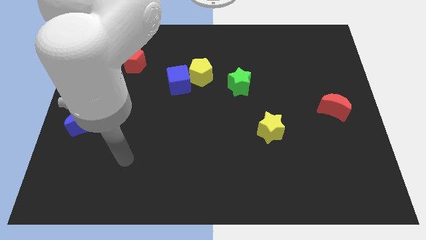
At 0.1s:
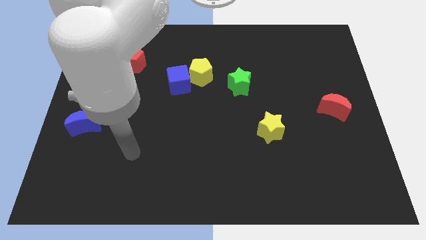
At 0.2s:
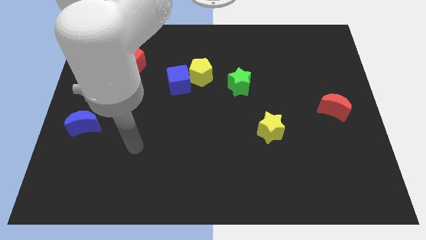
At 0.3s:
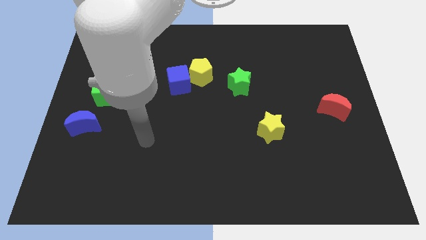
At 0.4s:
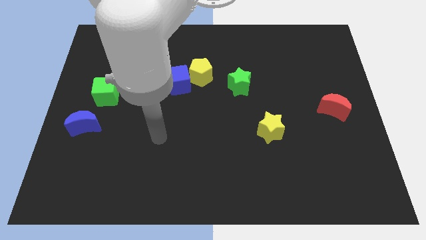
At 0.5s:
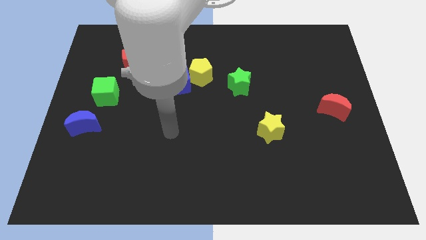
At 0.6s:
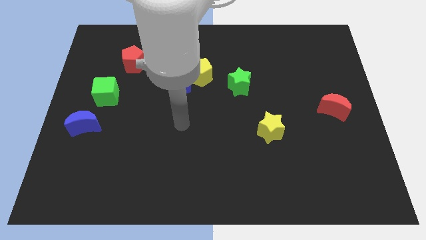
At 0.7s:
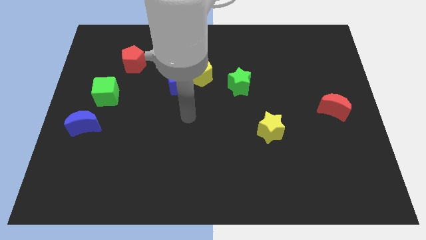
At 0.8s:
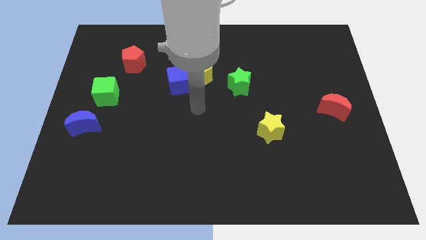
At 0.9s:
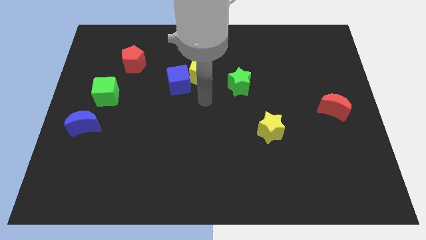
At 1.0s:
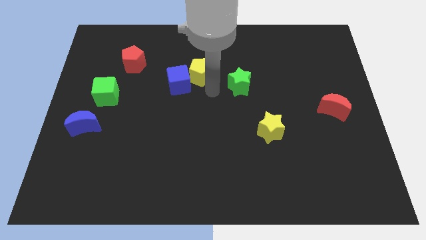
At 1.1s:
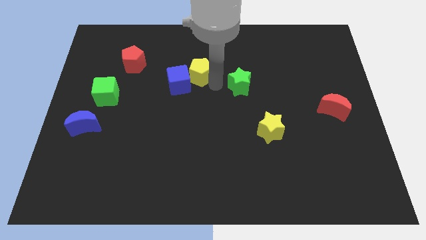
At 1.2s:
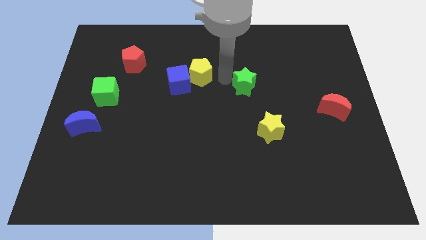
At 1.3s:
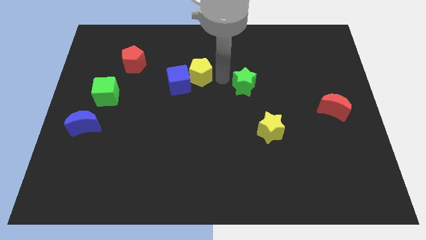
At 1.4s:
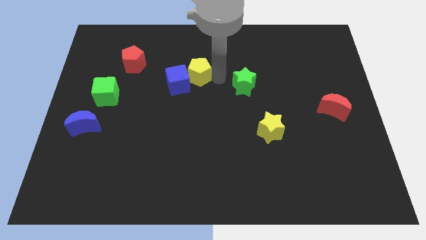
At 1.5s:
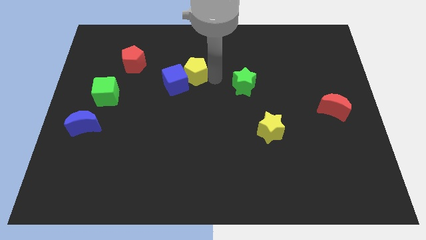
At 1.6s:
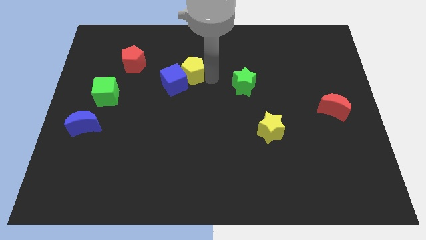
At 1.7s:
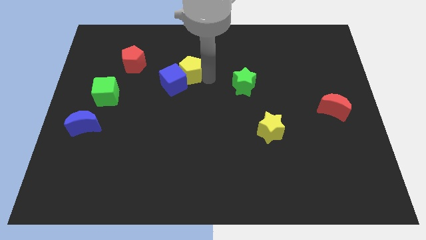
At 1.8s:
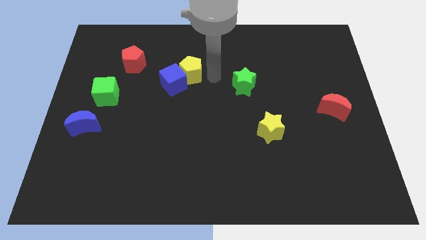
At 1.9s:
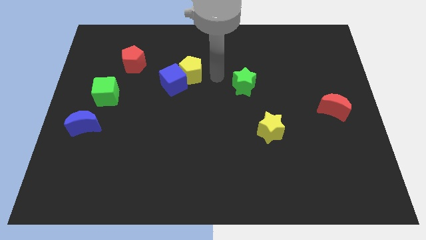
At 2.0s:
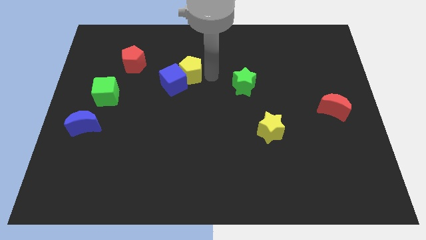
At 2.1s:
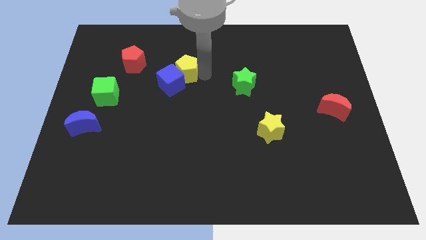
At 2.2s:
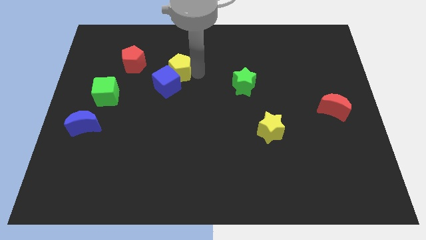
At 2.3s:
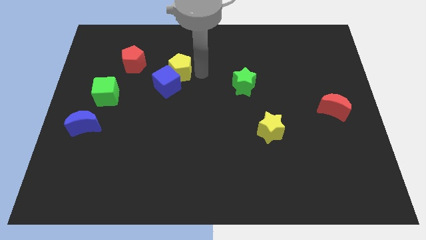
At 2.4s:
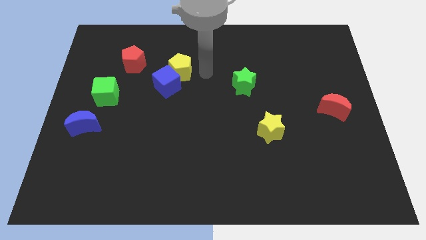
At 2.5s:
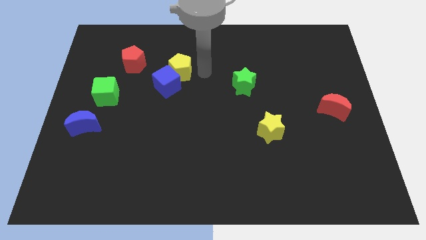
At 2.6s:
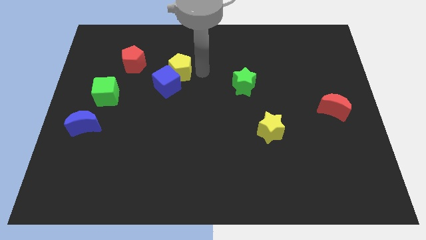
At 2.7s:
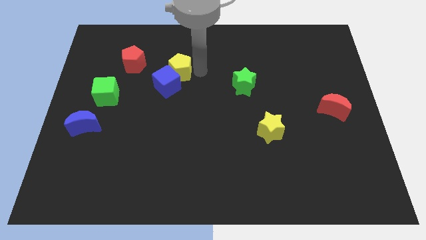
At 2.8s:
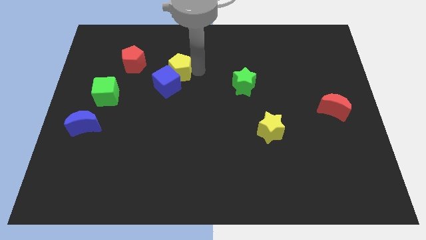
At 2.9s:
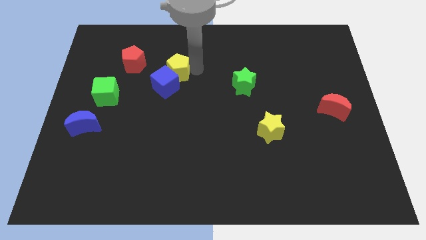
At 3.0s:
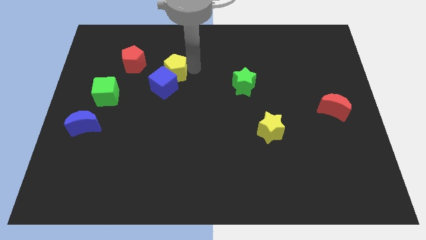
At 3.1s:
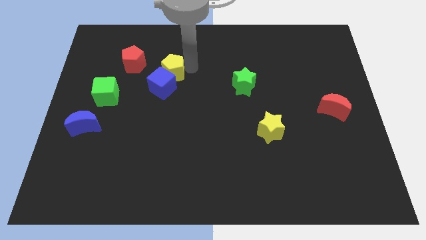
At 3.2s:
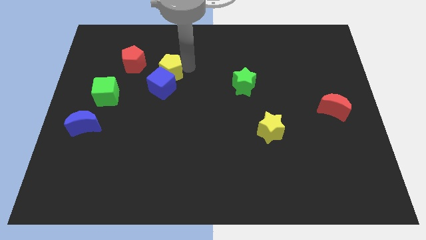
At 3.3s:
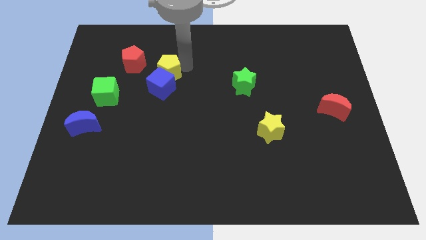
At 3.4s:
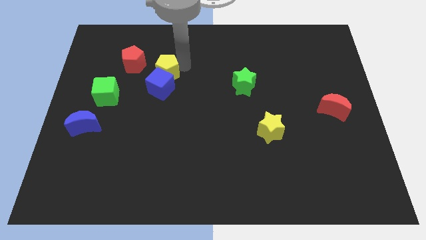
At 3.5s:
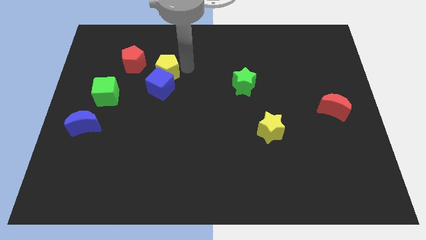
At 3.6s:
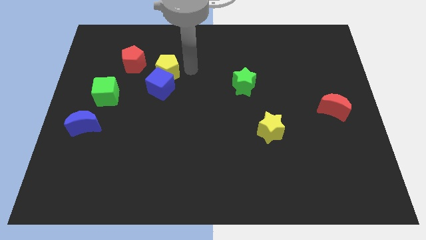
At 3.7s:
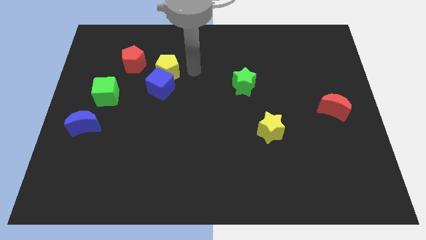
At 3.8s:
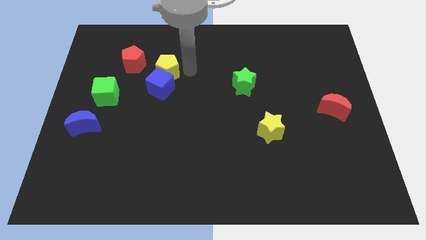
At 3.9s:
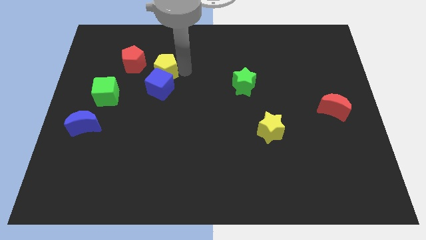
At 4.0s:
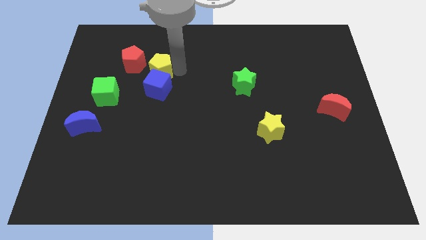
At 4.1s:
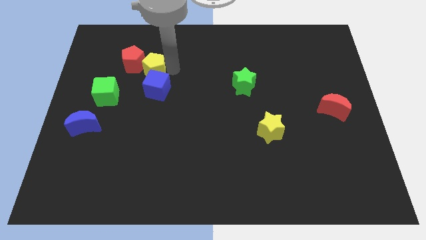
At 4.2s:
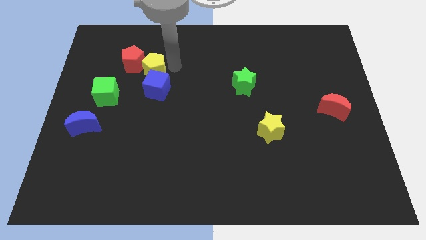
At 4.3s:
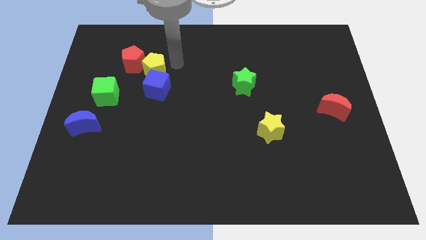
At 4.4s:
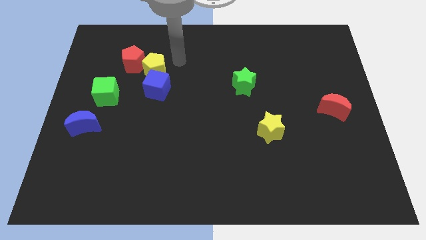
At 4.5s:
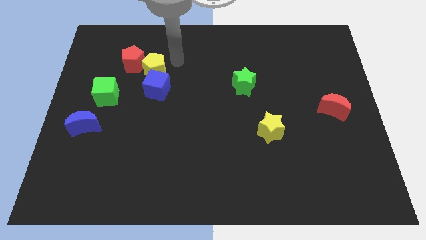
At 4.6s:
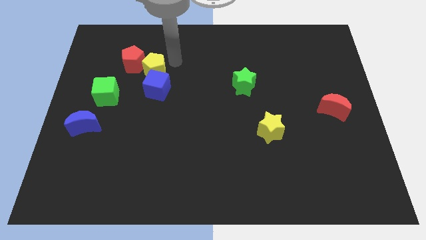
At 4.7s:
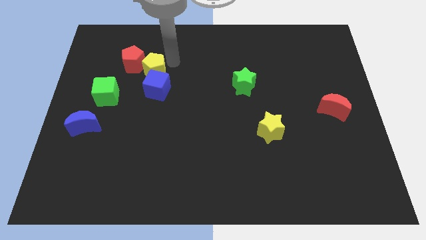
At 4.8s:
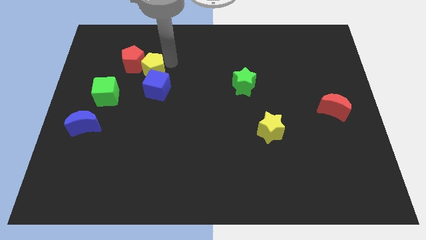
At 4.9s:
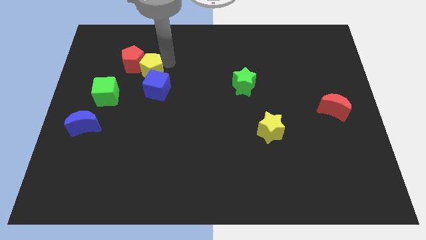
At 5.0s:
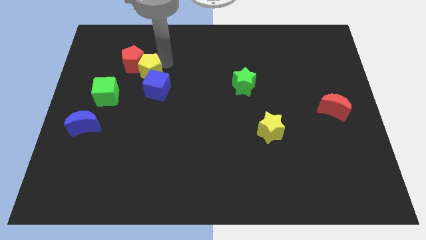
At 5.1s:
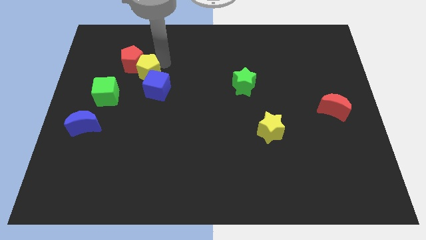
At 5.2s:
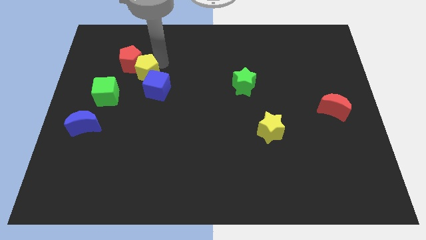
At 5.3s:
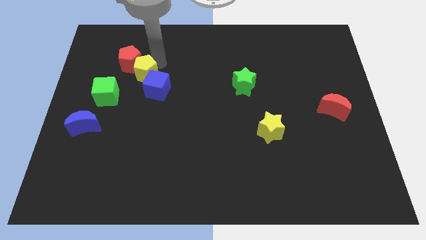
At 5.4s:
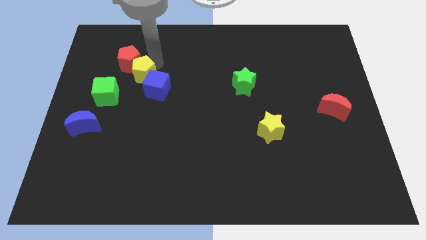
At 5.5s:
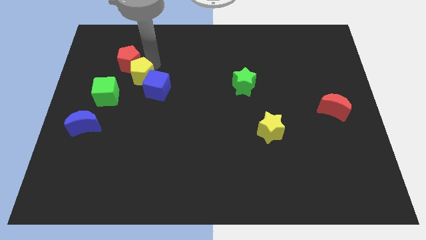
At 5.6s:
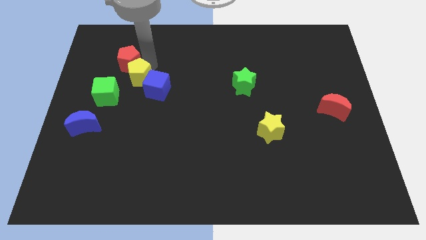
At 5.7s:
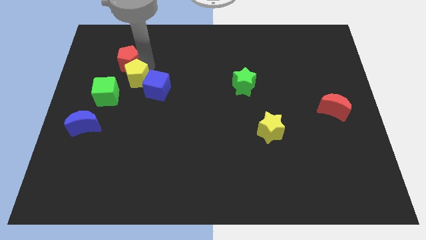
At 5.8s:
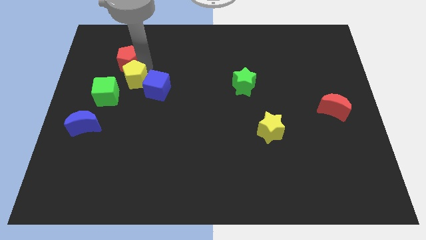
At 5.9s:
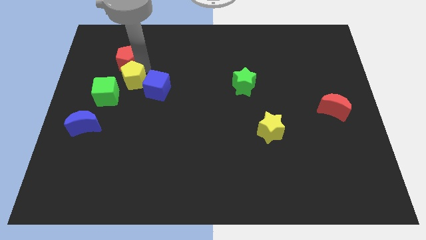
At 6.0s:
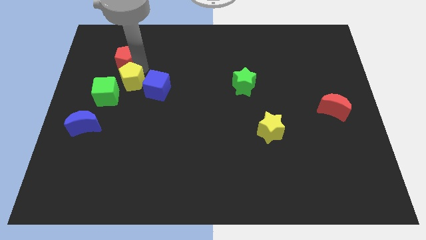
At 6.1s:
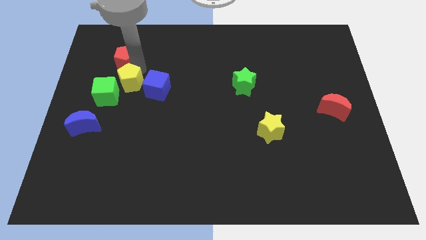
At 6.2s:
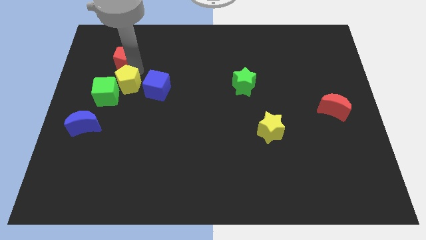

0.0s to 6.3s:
put the yellow pentagon to the green cube

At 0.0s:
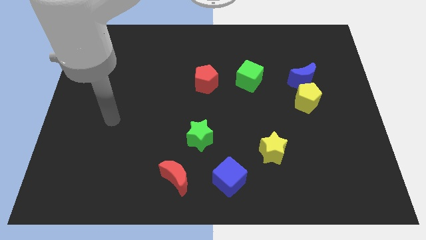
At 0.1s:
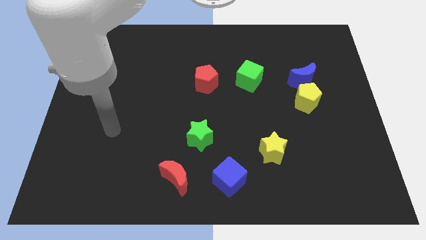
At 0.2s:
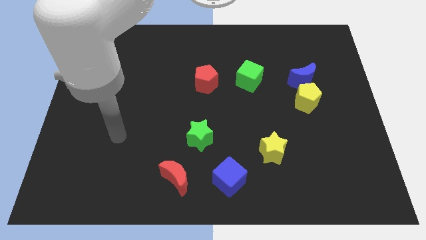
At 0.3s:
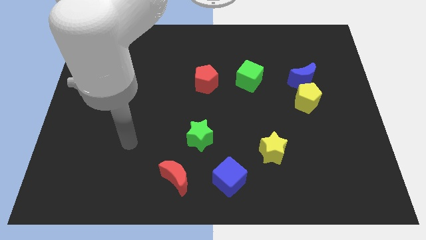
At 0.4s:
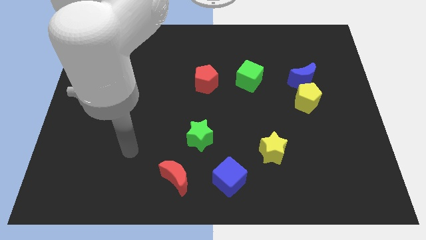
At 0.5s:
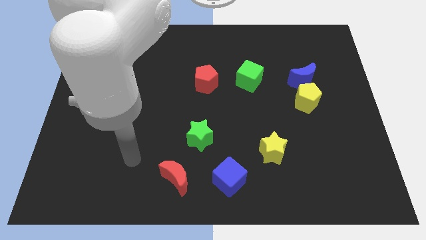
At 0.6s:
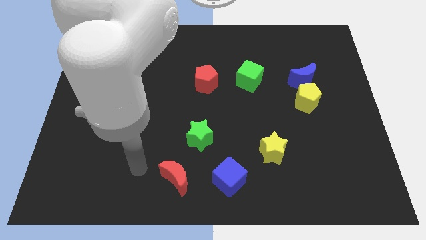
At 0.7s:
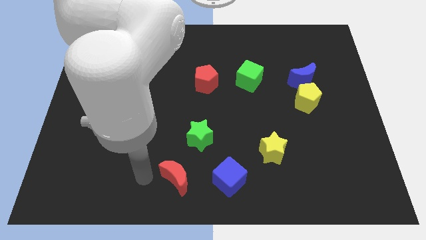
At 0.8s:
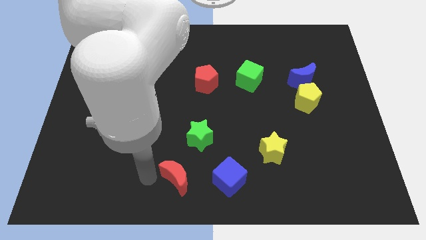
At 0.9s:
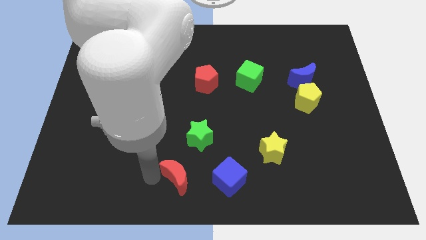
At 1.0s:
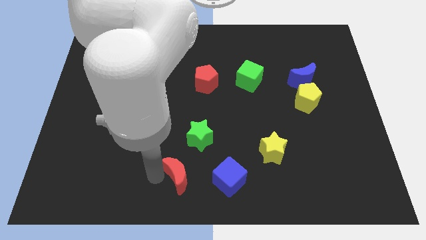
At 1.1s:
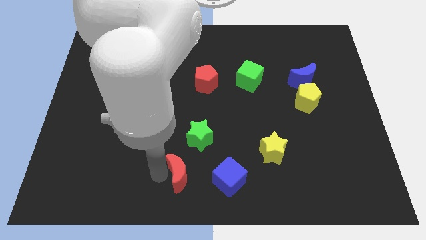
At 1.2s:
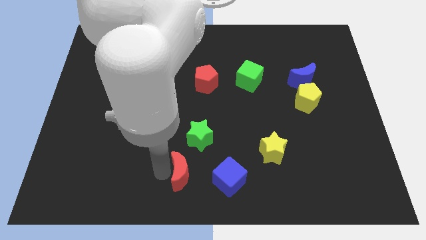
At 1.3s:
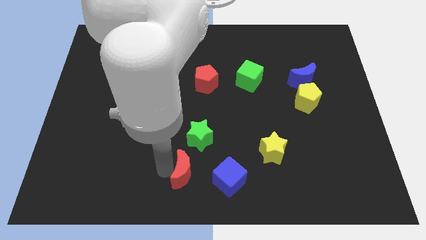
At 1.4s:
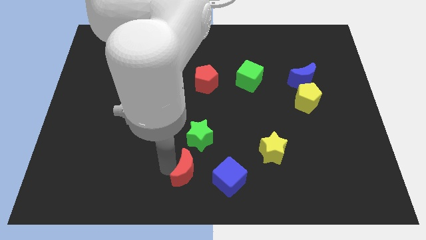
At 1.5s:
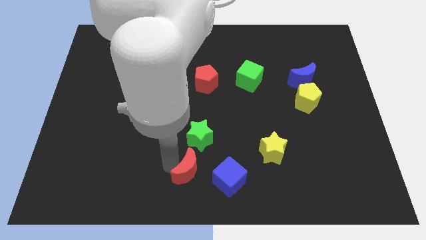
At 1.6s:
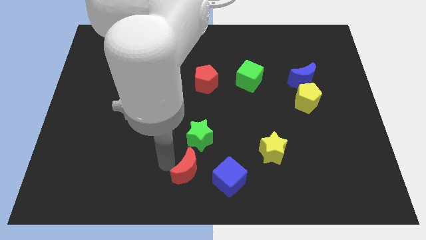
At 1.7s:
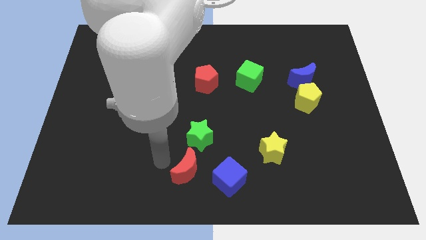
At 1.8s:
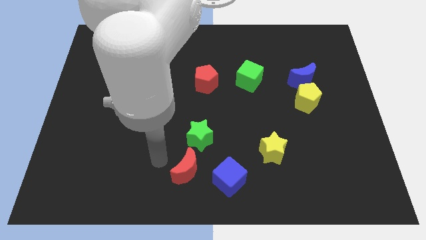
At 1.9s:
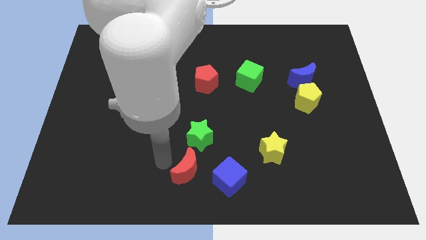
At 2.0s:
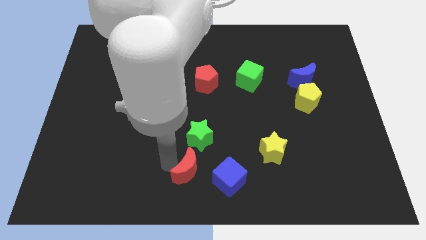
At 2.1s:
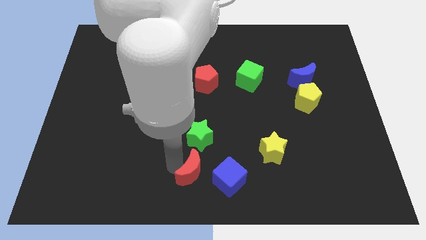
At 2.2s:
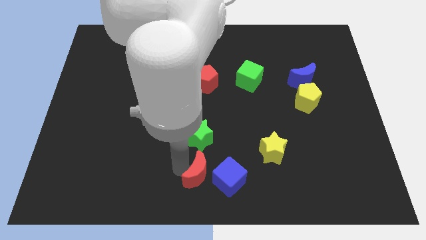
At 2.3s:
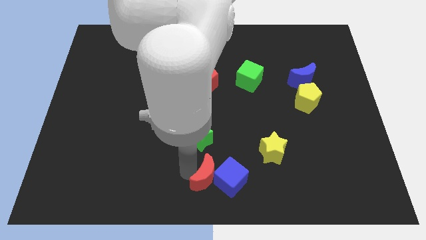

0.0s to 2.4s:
move the red moon close to the blue cube
